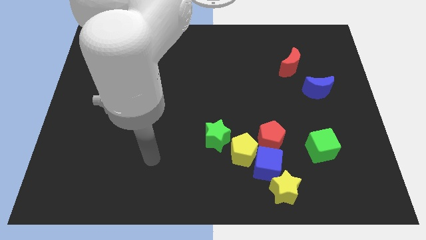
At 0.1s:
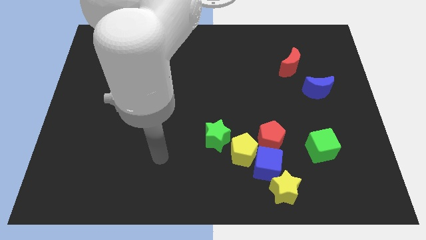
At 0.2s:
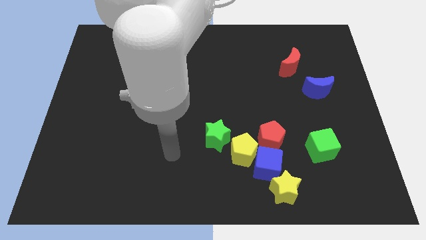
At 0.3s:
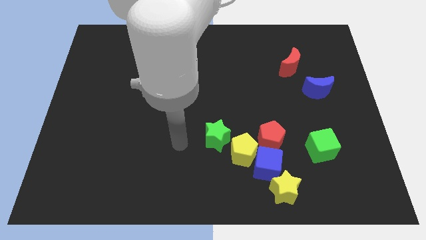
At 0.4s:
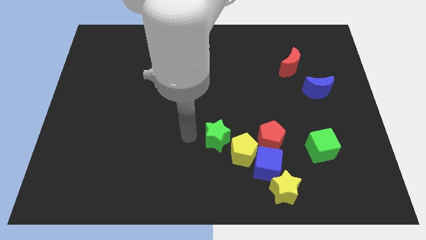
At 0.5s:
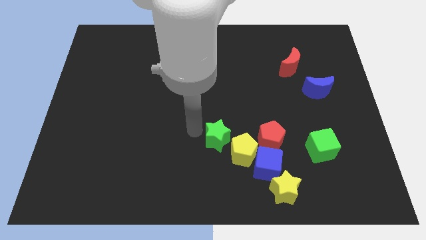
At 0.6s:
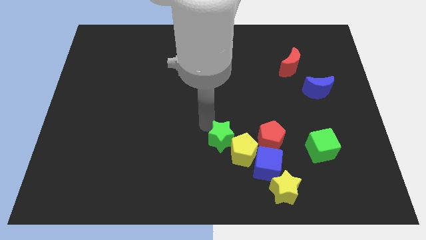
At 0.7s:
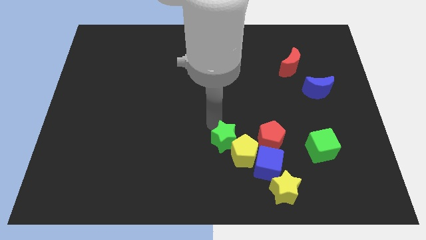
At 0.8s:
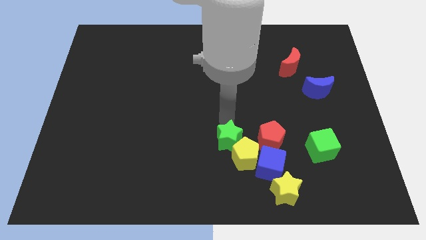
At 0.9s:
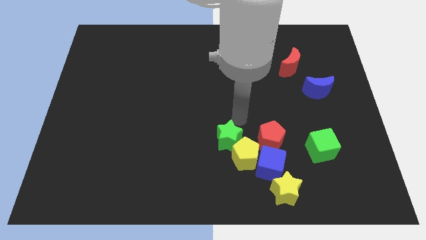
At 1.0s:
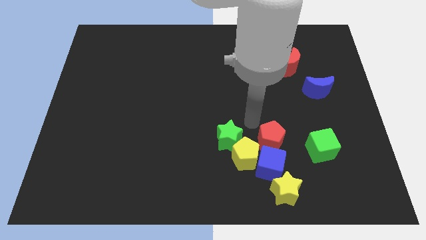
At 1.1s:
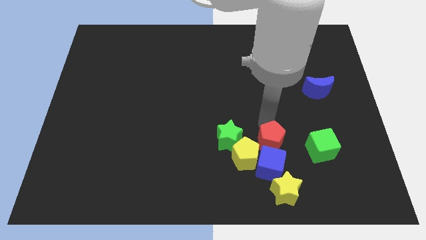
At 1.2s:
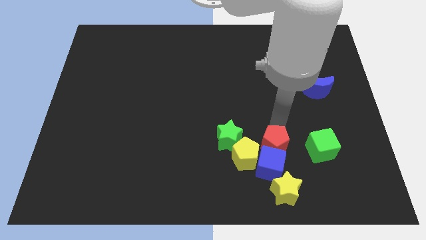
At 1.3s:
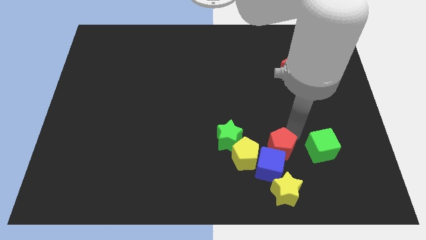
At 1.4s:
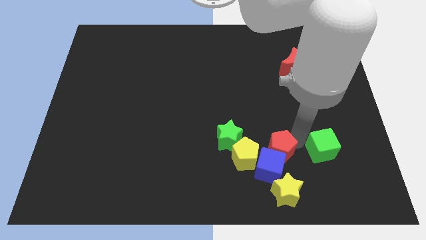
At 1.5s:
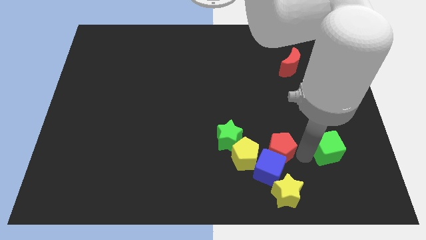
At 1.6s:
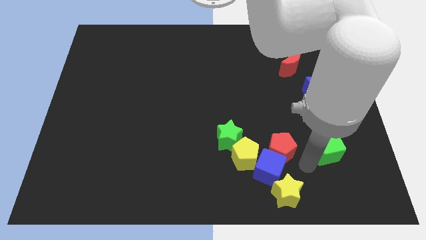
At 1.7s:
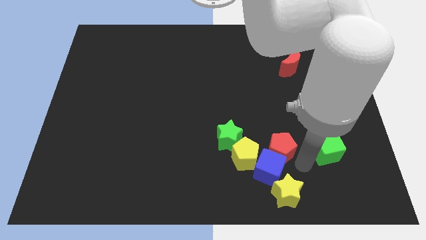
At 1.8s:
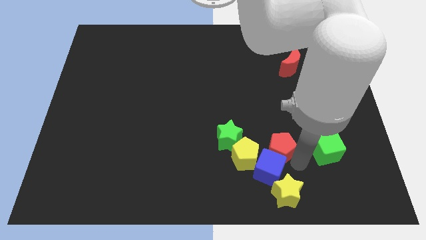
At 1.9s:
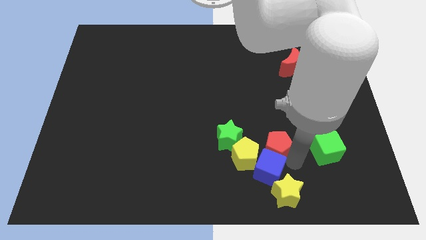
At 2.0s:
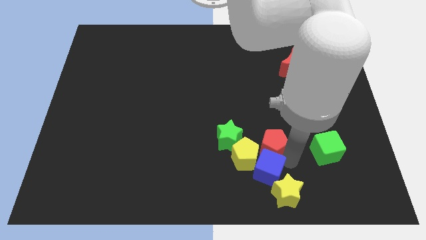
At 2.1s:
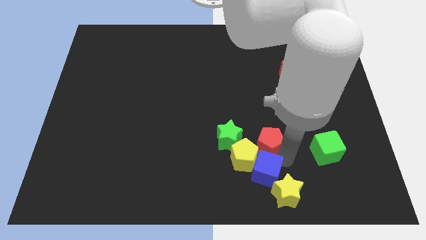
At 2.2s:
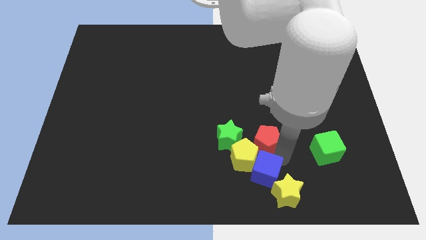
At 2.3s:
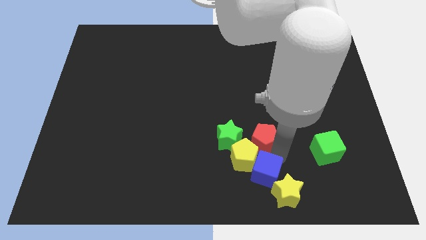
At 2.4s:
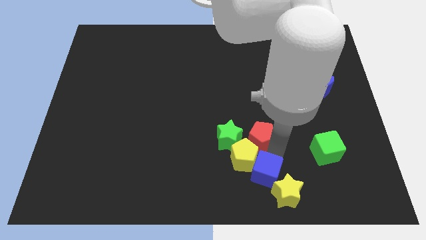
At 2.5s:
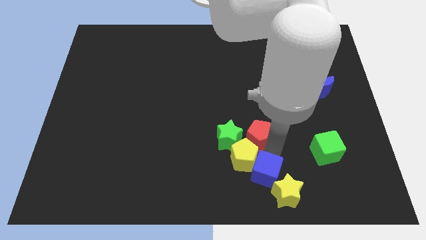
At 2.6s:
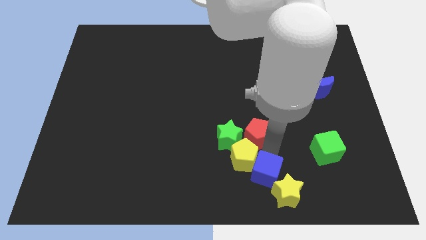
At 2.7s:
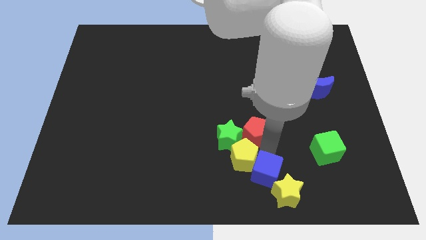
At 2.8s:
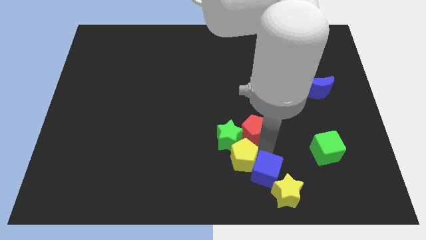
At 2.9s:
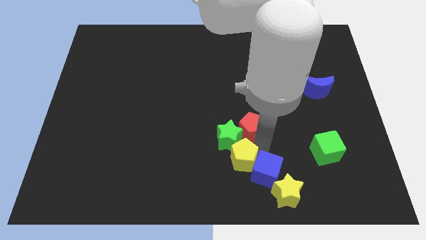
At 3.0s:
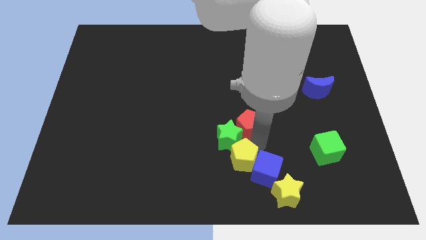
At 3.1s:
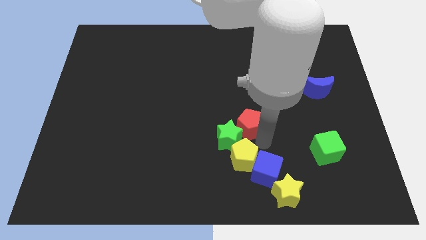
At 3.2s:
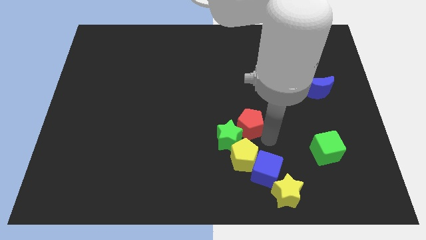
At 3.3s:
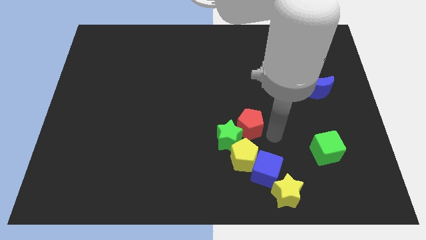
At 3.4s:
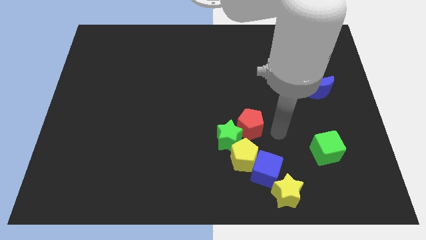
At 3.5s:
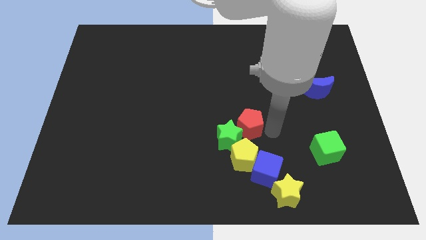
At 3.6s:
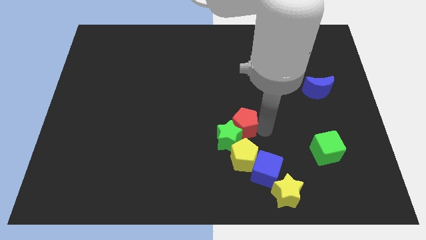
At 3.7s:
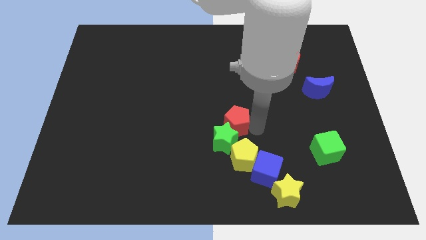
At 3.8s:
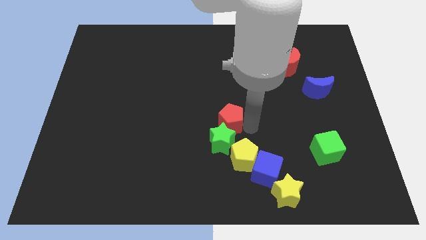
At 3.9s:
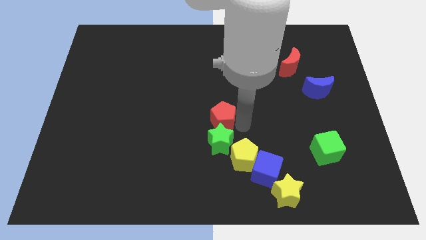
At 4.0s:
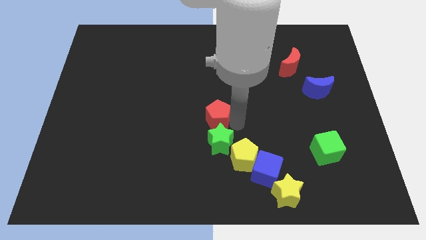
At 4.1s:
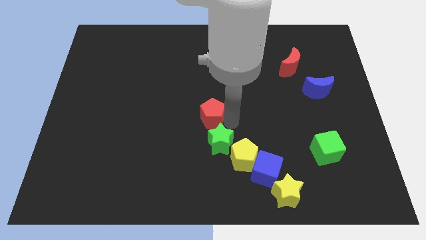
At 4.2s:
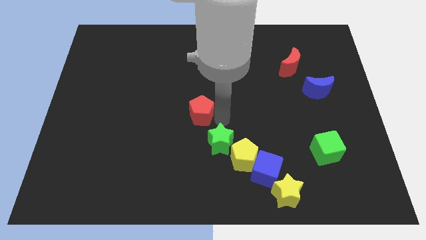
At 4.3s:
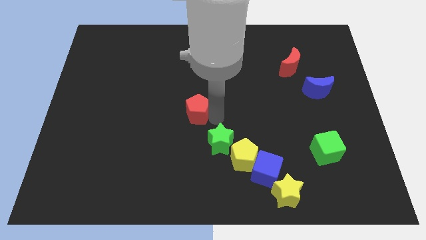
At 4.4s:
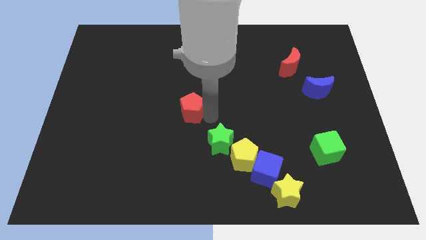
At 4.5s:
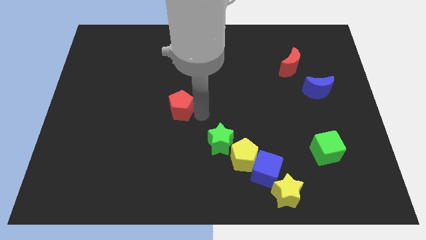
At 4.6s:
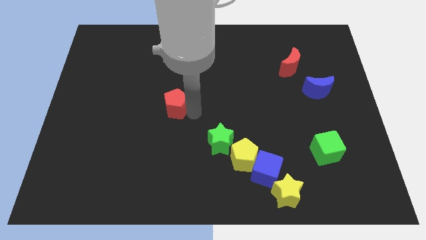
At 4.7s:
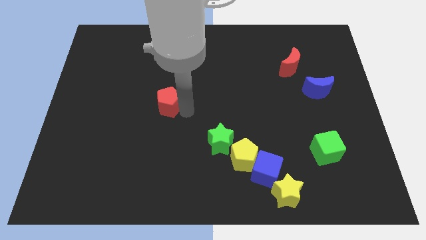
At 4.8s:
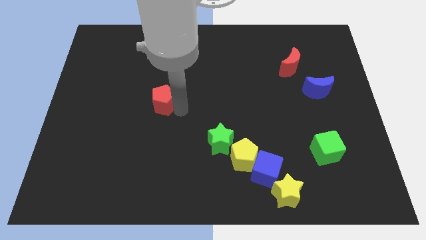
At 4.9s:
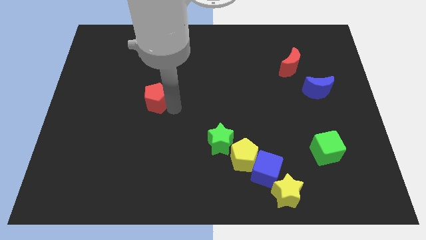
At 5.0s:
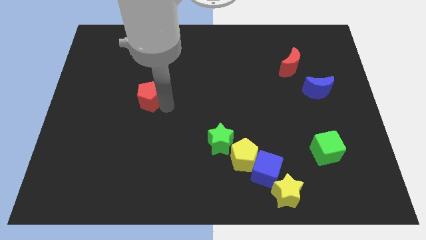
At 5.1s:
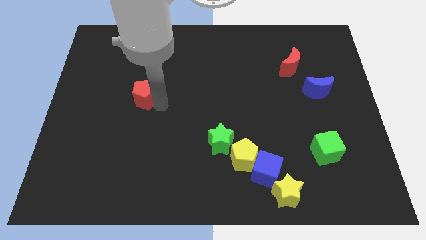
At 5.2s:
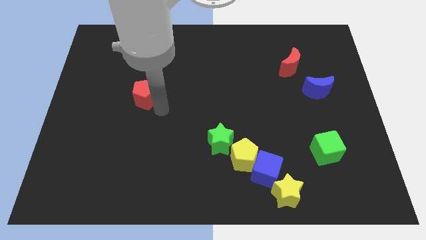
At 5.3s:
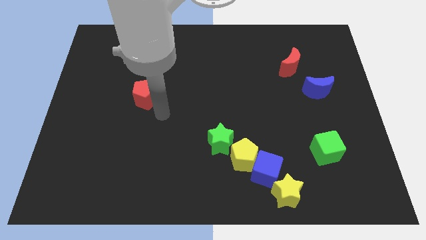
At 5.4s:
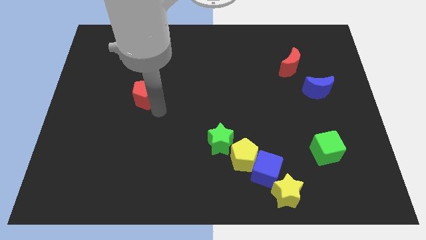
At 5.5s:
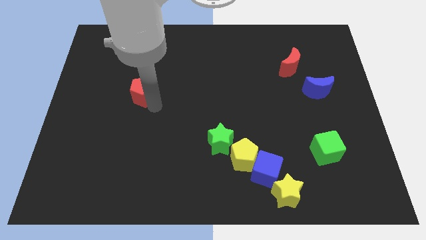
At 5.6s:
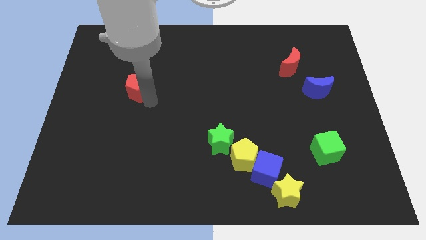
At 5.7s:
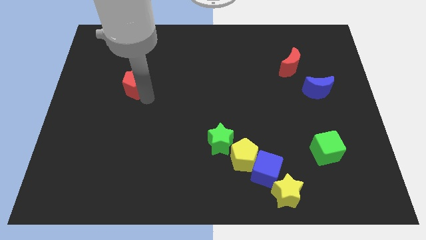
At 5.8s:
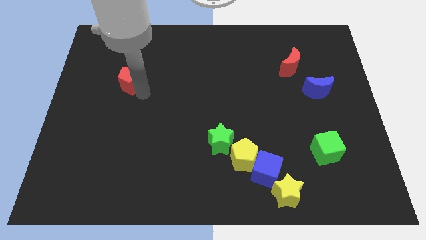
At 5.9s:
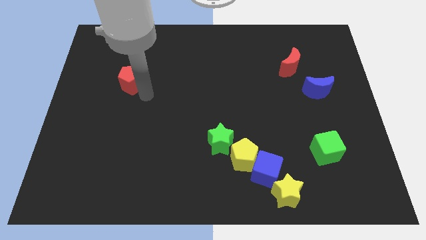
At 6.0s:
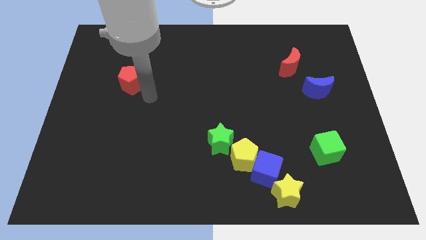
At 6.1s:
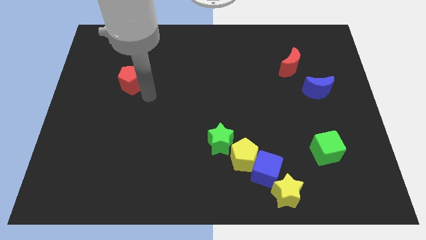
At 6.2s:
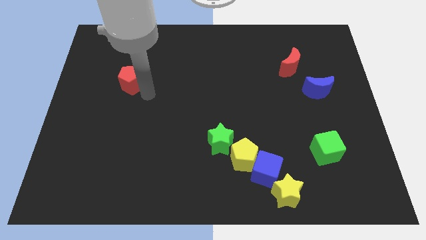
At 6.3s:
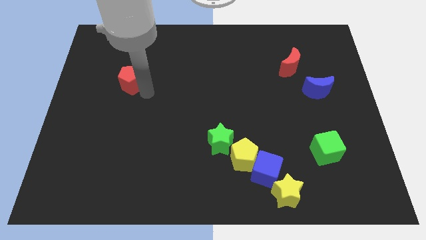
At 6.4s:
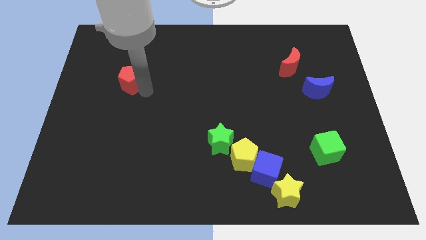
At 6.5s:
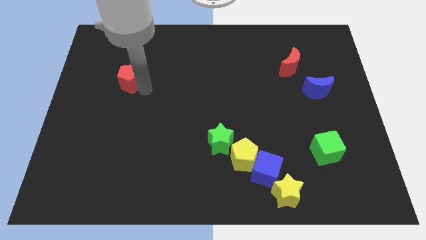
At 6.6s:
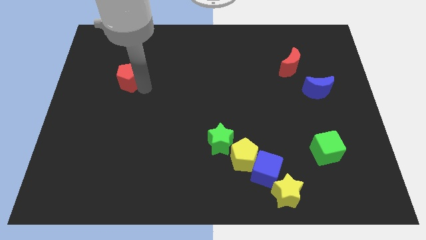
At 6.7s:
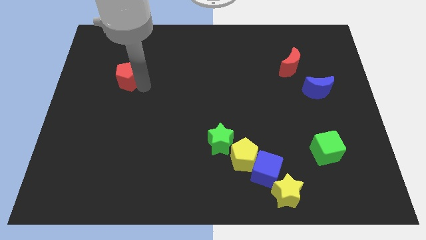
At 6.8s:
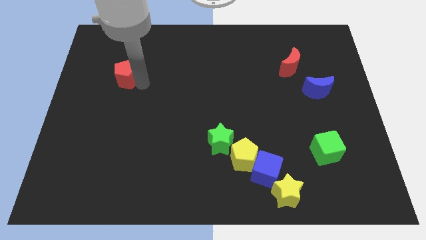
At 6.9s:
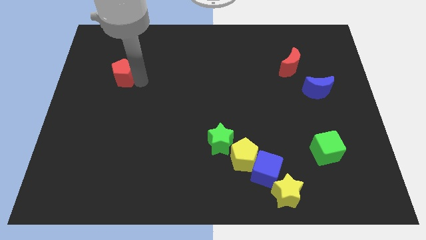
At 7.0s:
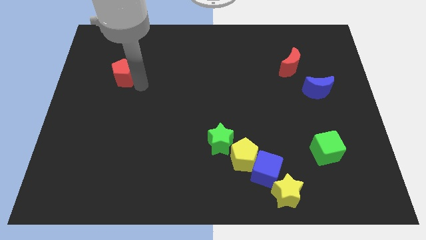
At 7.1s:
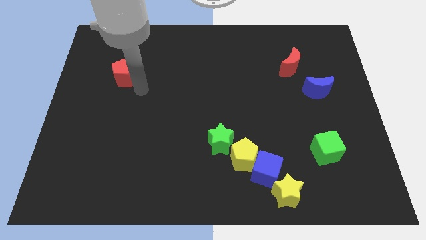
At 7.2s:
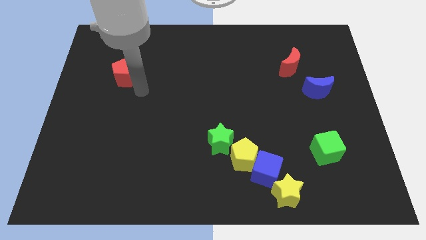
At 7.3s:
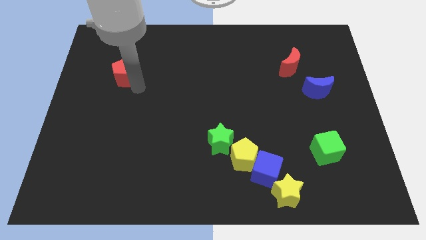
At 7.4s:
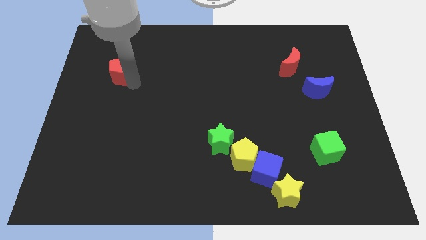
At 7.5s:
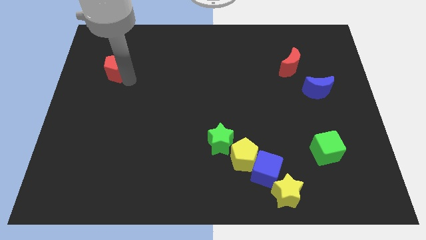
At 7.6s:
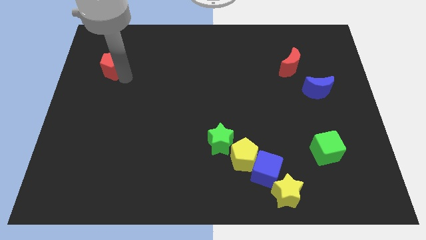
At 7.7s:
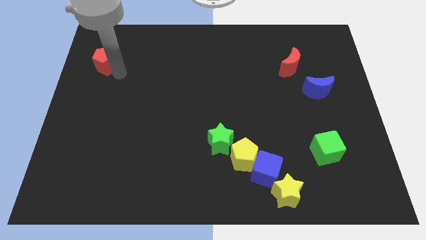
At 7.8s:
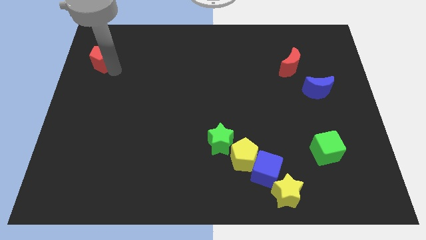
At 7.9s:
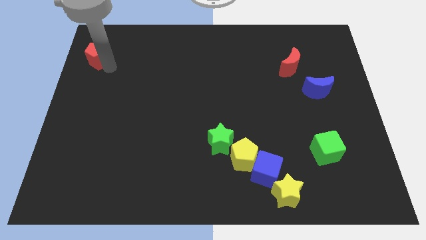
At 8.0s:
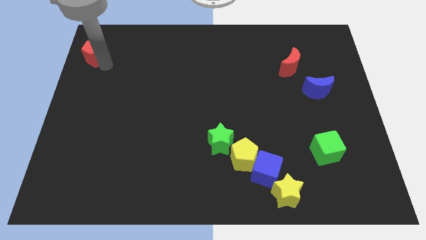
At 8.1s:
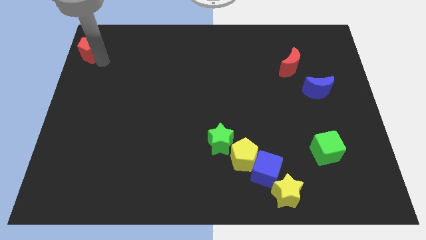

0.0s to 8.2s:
move the red pentagon to the top left corner
